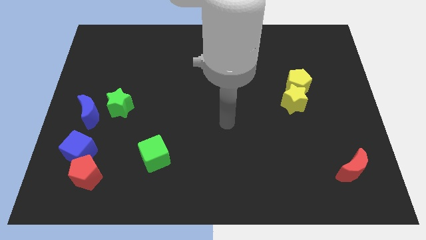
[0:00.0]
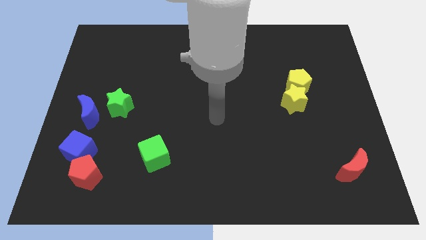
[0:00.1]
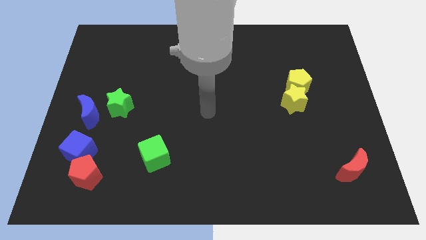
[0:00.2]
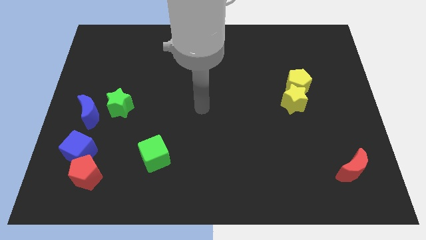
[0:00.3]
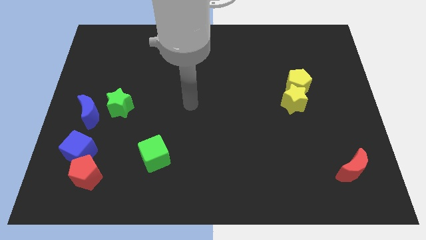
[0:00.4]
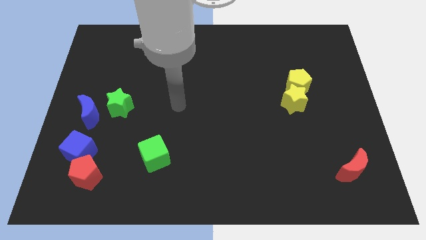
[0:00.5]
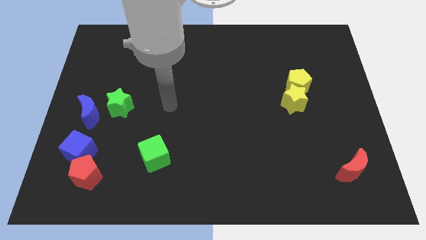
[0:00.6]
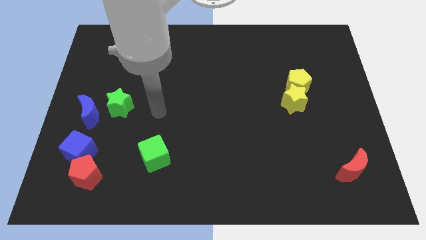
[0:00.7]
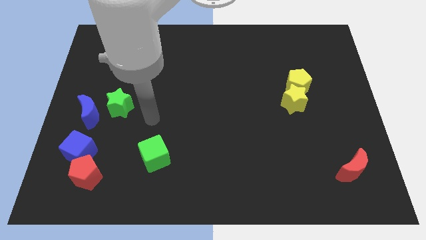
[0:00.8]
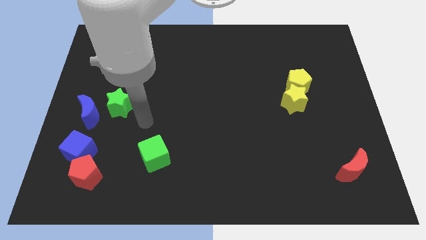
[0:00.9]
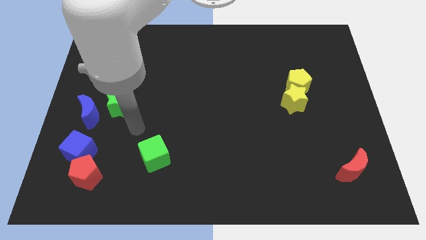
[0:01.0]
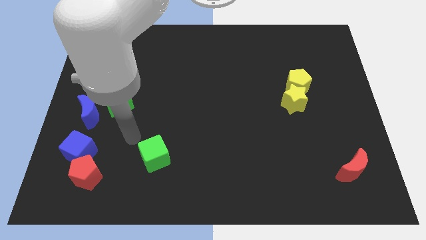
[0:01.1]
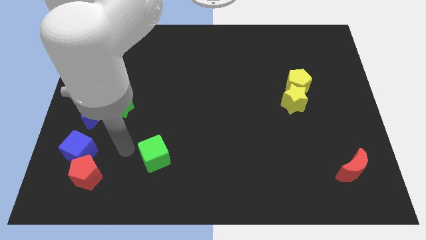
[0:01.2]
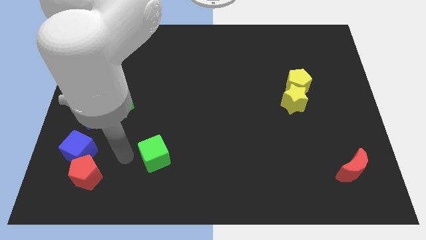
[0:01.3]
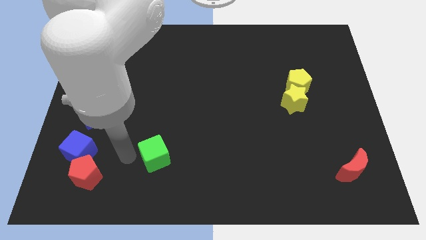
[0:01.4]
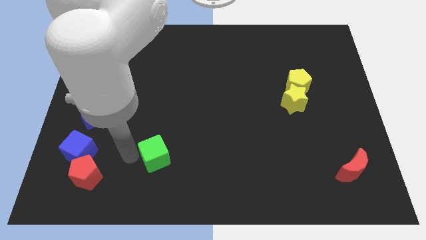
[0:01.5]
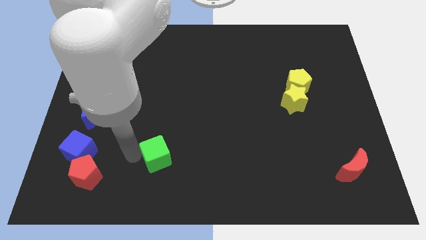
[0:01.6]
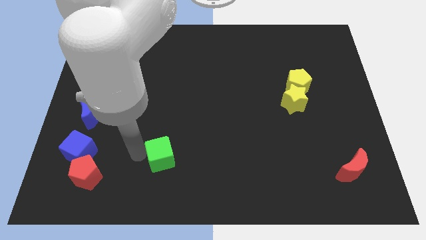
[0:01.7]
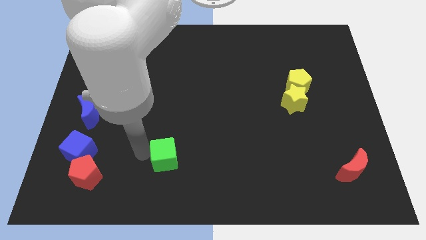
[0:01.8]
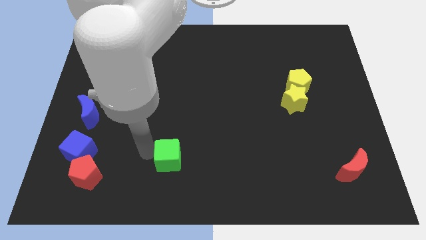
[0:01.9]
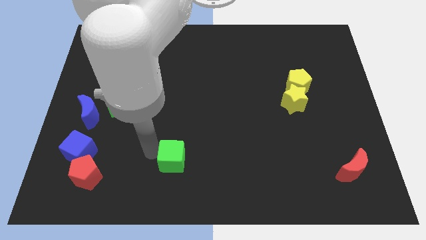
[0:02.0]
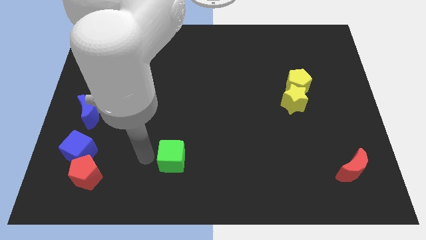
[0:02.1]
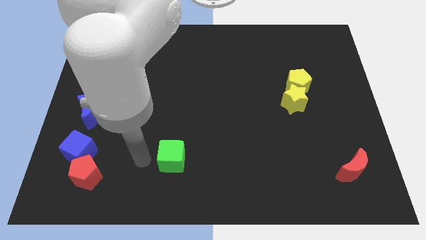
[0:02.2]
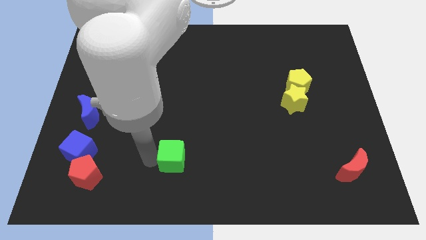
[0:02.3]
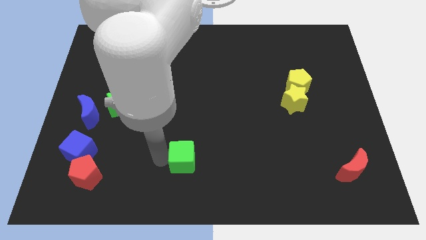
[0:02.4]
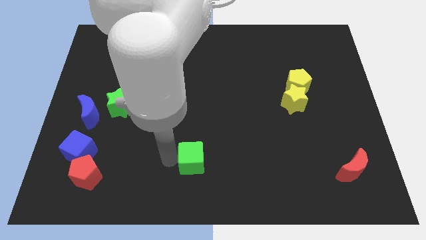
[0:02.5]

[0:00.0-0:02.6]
push the green cube somewhat to the right

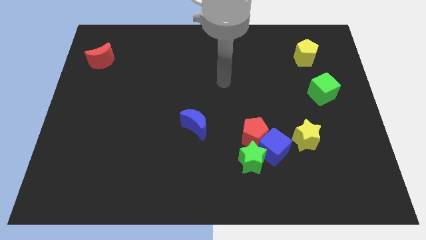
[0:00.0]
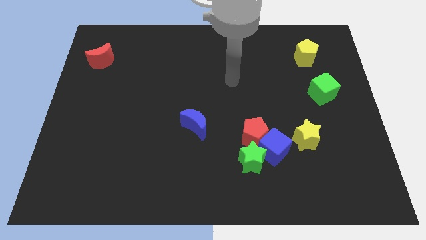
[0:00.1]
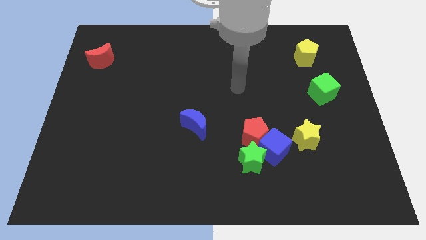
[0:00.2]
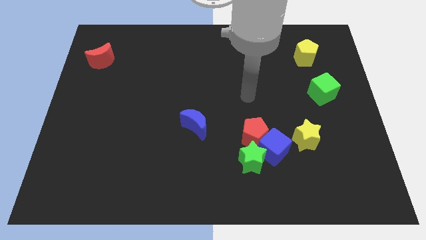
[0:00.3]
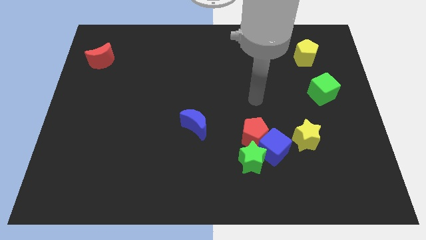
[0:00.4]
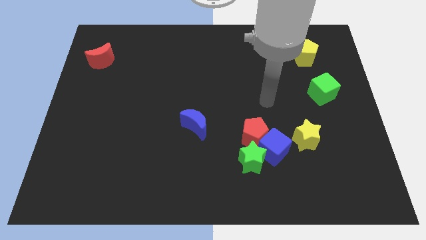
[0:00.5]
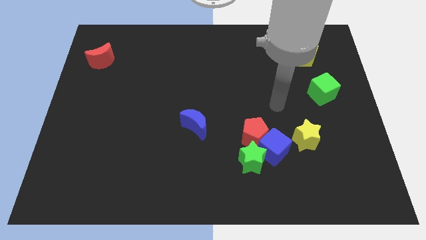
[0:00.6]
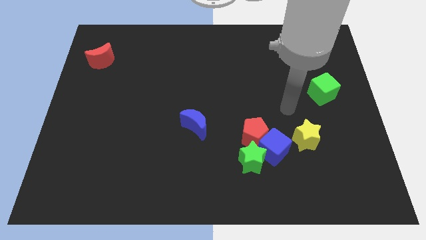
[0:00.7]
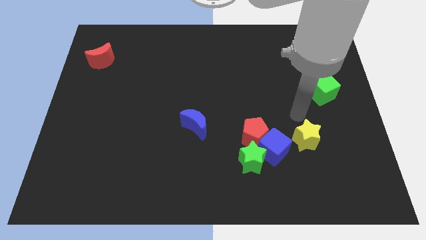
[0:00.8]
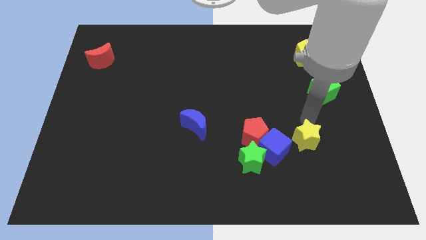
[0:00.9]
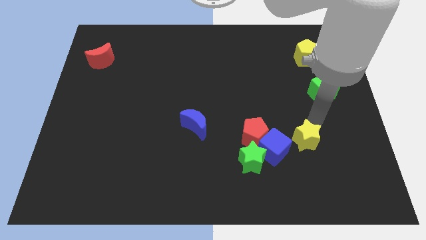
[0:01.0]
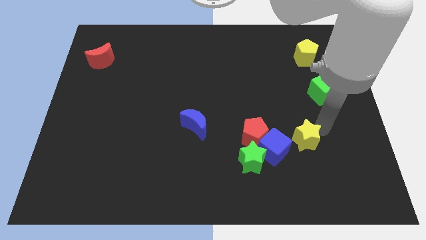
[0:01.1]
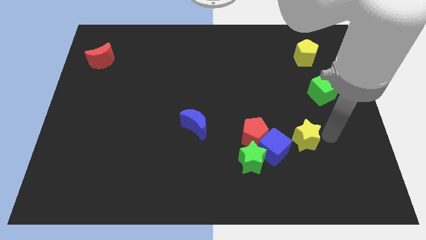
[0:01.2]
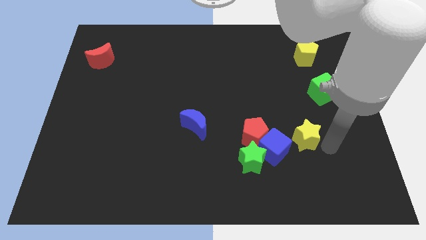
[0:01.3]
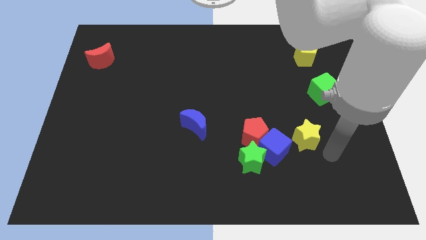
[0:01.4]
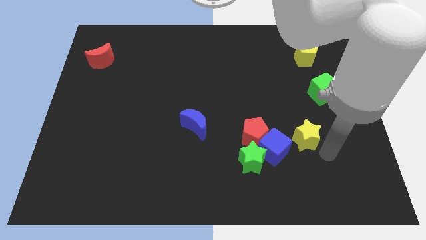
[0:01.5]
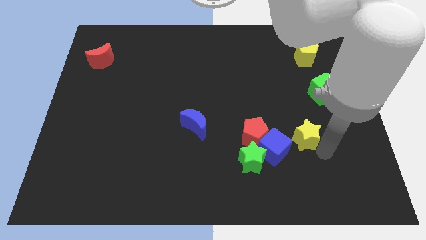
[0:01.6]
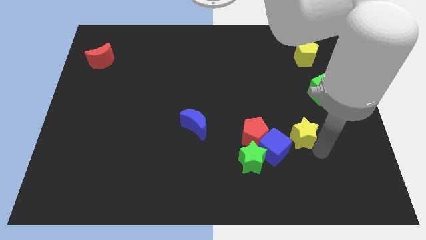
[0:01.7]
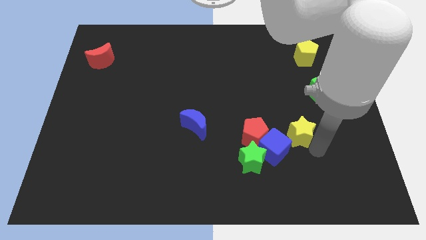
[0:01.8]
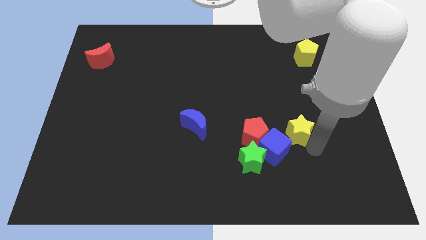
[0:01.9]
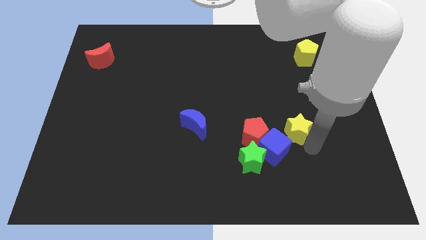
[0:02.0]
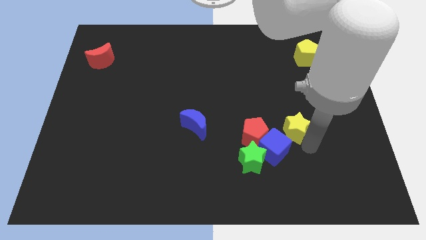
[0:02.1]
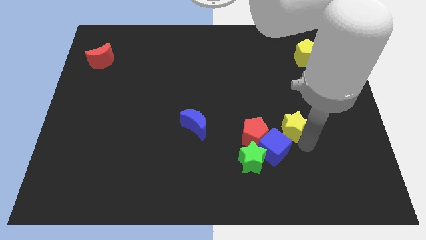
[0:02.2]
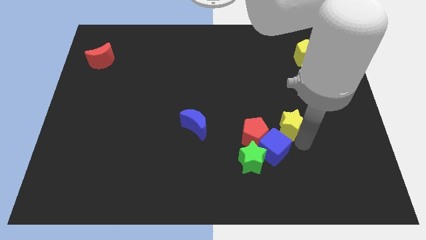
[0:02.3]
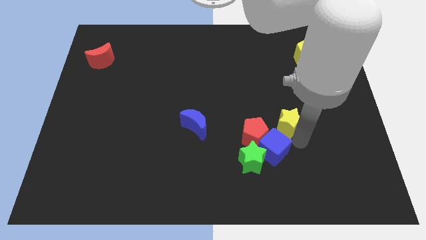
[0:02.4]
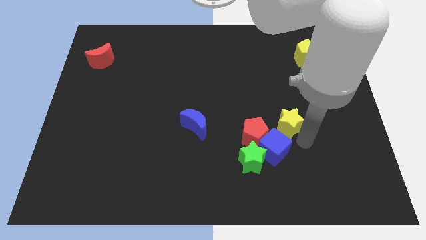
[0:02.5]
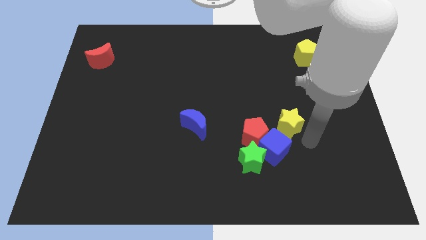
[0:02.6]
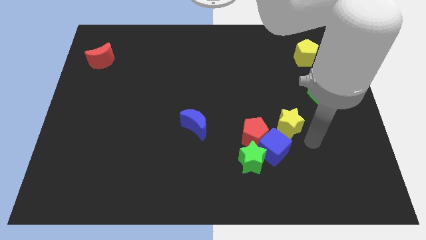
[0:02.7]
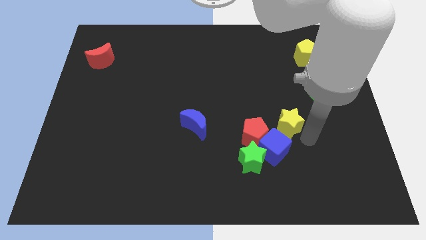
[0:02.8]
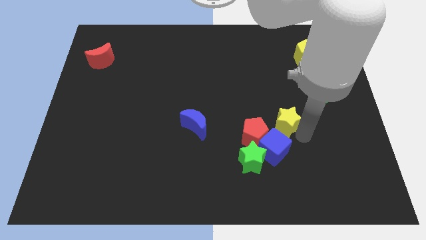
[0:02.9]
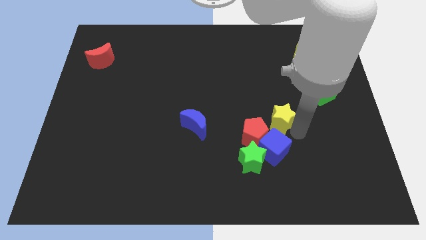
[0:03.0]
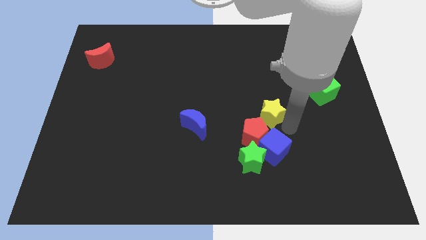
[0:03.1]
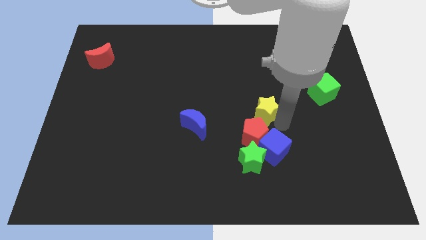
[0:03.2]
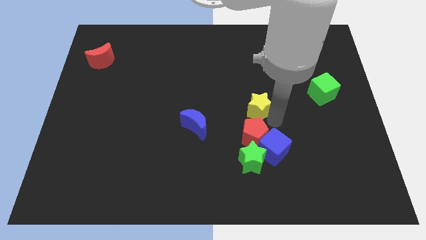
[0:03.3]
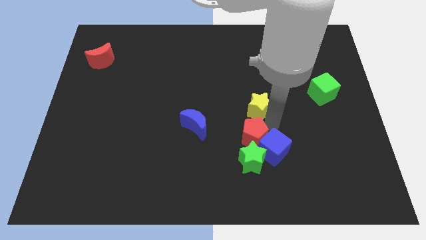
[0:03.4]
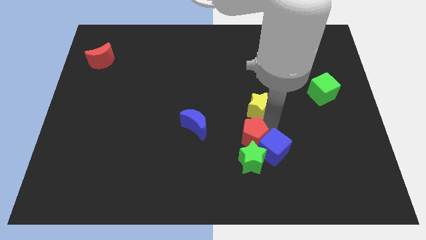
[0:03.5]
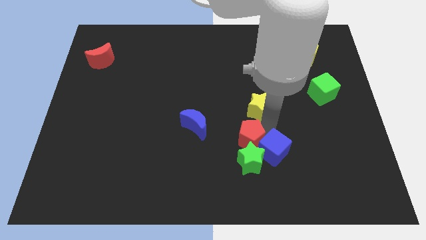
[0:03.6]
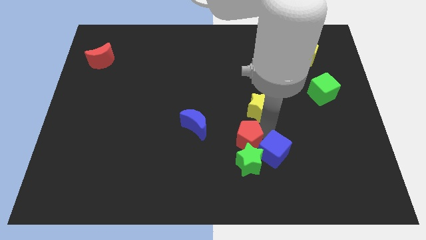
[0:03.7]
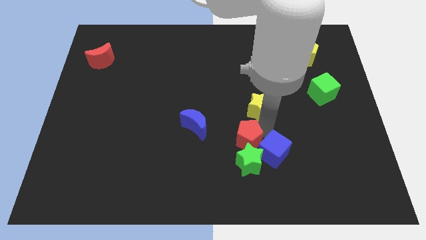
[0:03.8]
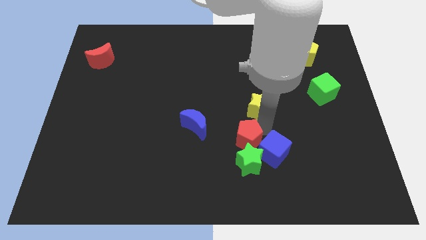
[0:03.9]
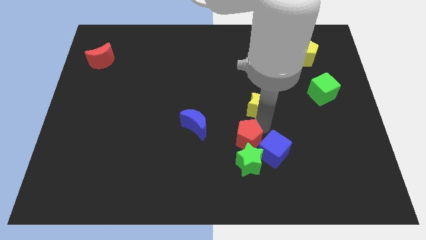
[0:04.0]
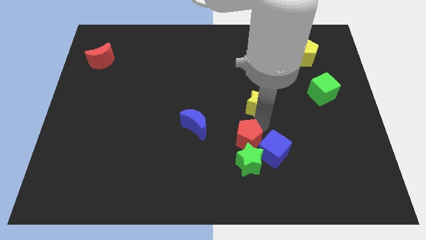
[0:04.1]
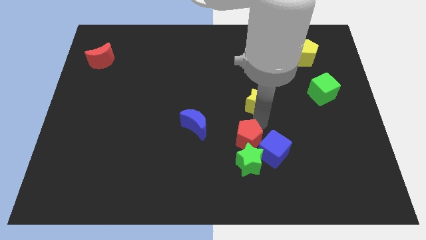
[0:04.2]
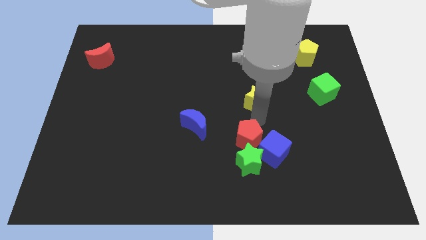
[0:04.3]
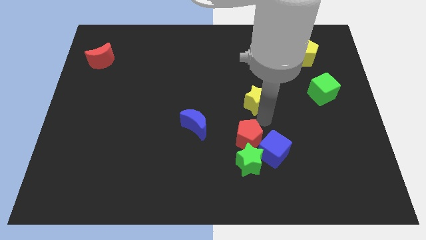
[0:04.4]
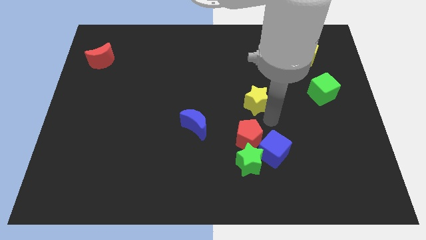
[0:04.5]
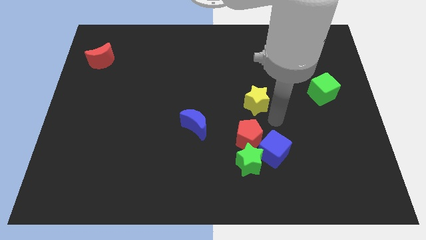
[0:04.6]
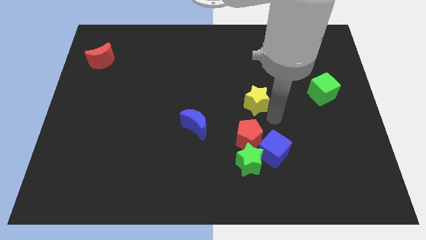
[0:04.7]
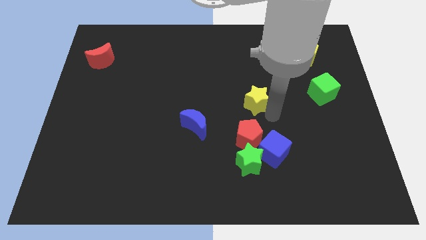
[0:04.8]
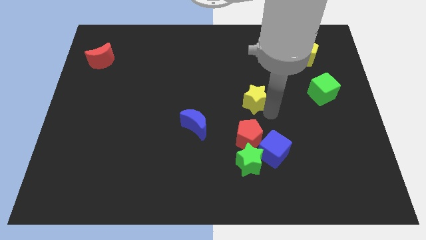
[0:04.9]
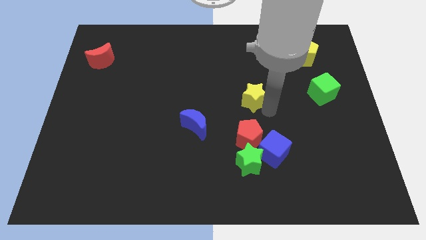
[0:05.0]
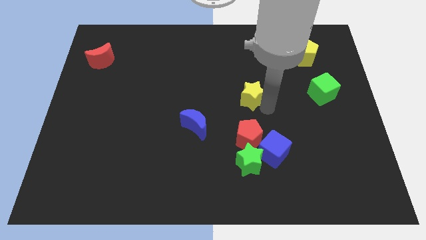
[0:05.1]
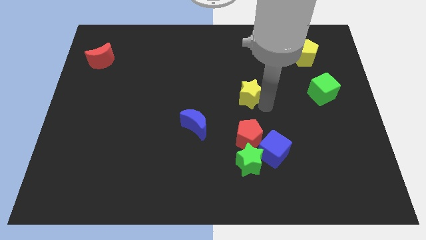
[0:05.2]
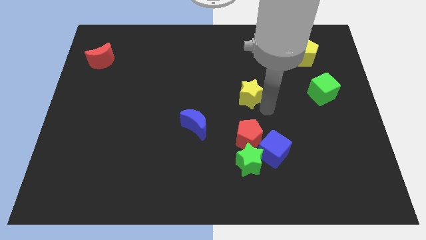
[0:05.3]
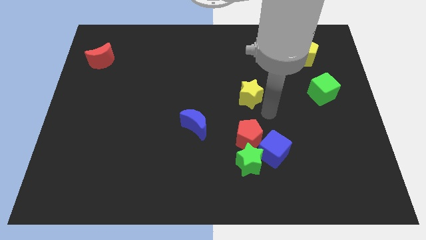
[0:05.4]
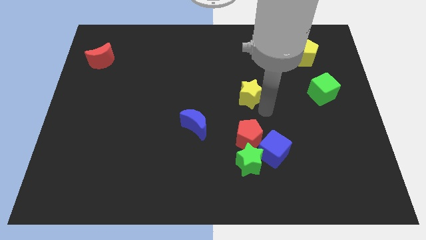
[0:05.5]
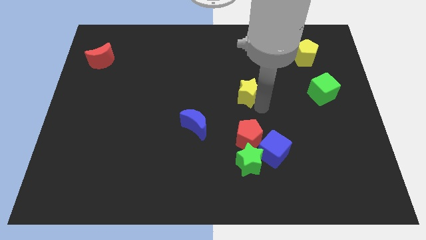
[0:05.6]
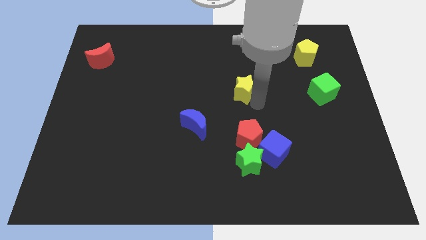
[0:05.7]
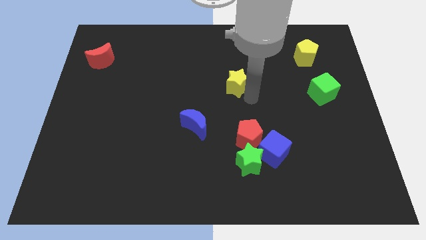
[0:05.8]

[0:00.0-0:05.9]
slide the yellow star up and to the left diagonally

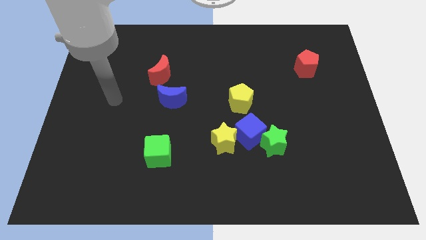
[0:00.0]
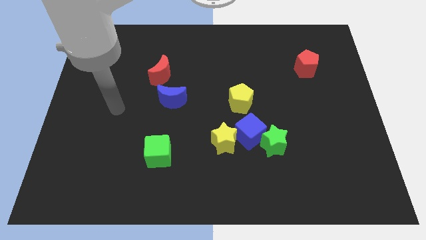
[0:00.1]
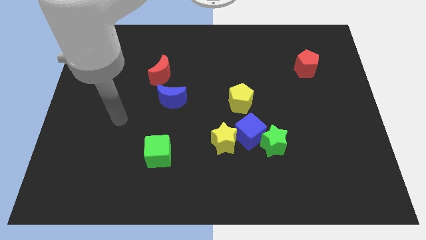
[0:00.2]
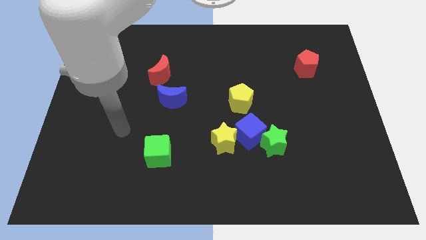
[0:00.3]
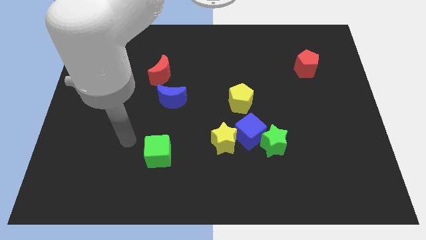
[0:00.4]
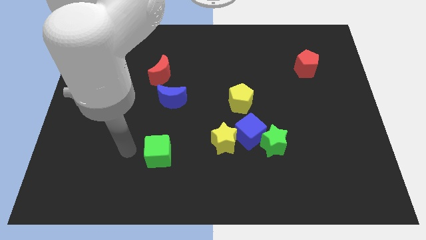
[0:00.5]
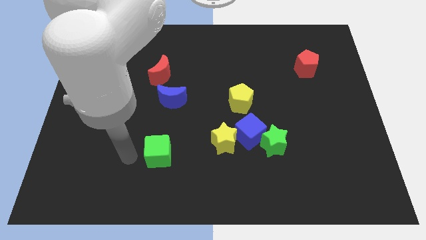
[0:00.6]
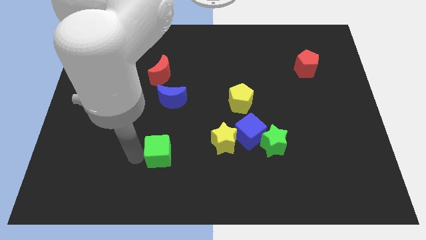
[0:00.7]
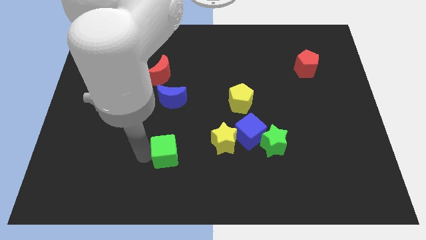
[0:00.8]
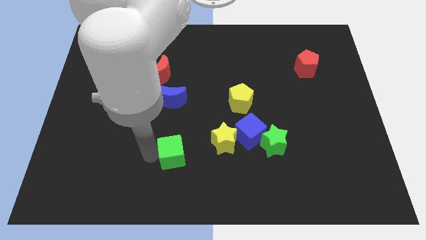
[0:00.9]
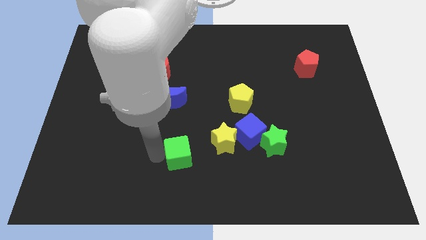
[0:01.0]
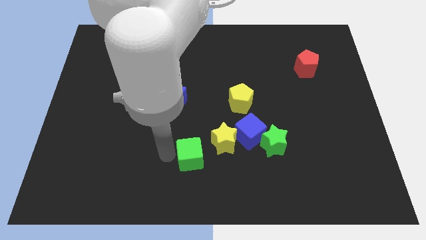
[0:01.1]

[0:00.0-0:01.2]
push the green cube right a little bit
